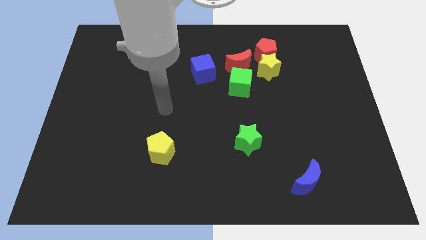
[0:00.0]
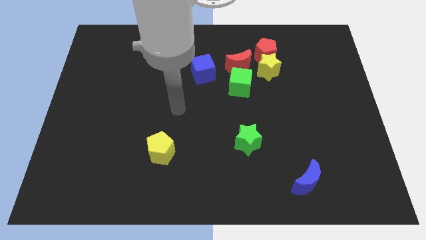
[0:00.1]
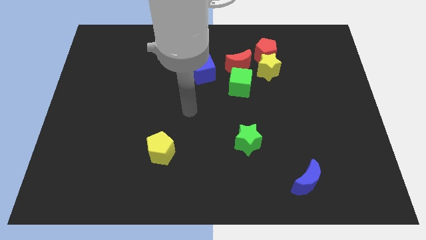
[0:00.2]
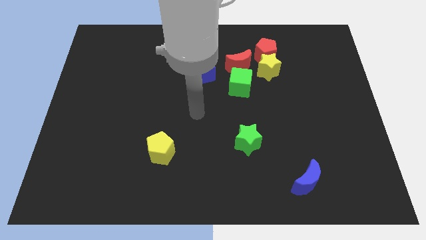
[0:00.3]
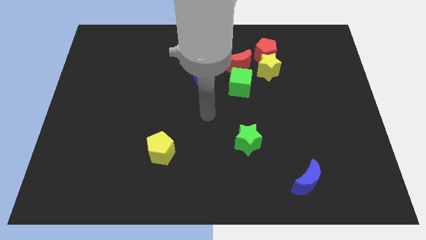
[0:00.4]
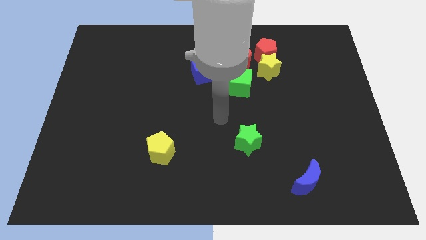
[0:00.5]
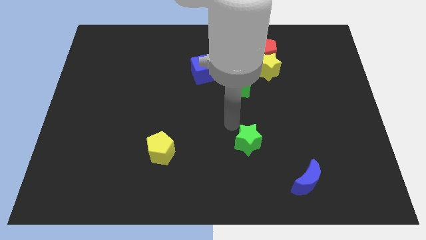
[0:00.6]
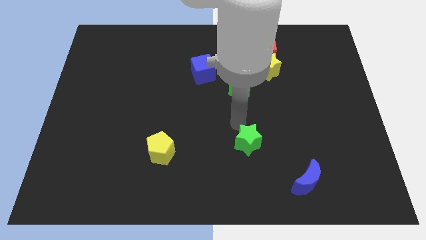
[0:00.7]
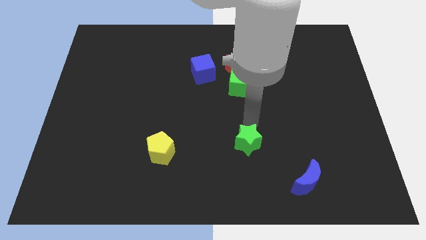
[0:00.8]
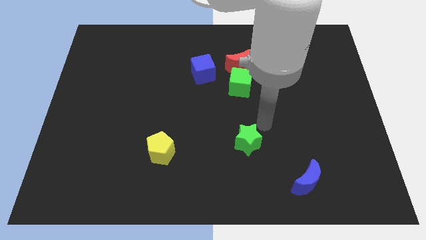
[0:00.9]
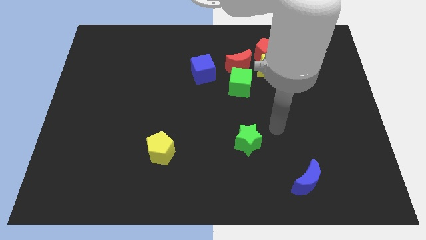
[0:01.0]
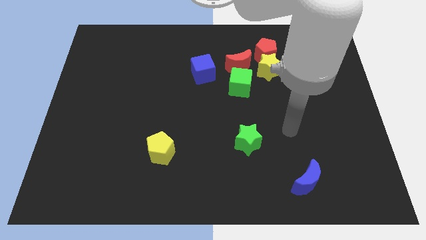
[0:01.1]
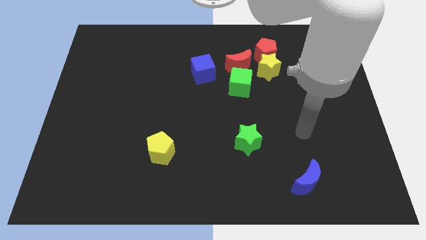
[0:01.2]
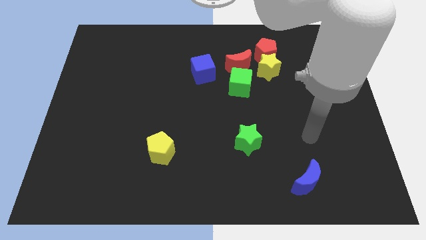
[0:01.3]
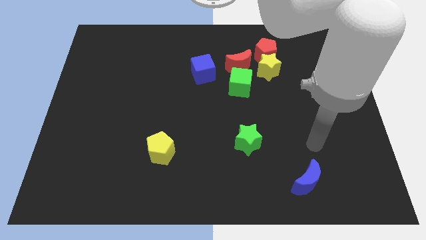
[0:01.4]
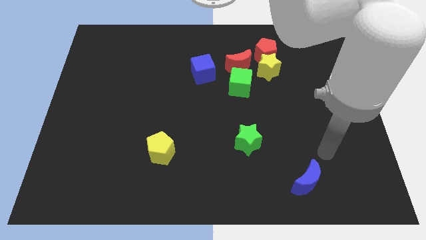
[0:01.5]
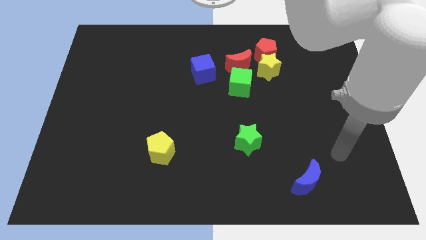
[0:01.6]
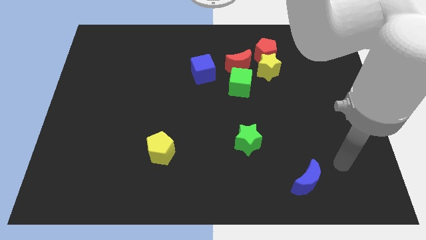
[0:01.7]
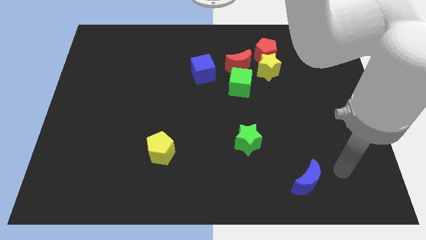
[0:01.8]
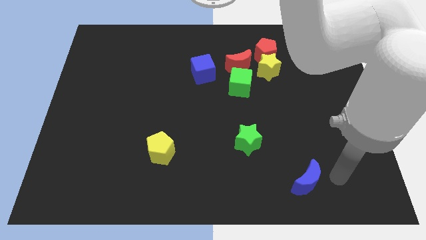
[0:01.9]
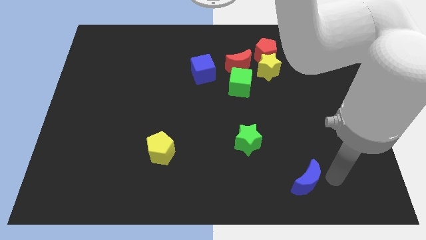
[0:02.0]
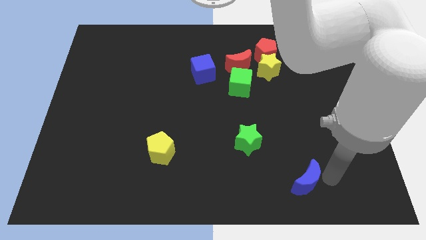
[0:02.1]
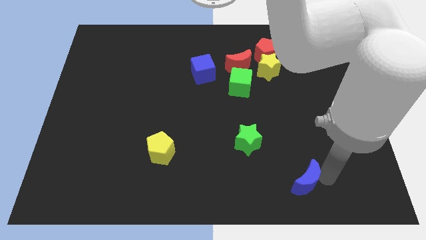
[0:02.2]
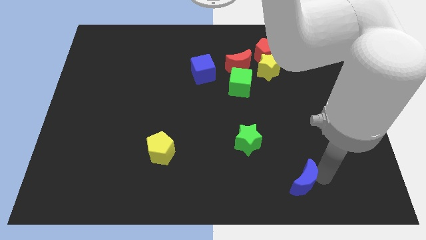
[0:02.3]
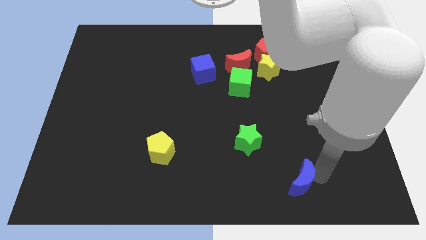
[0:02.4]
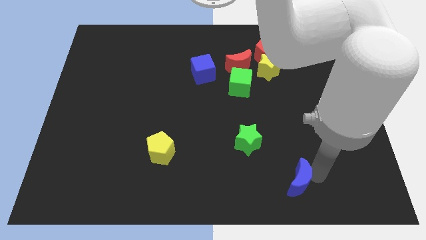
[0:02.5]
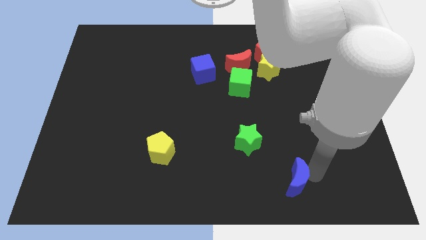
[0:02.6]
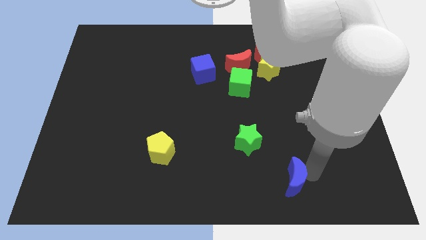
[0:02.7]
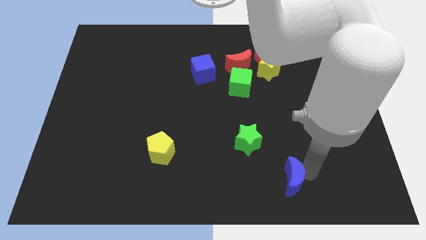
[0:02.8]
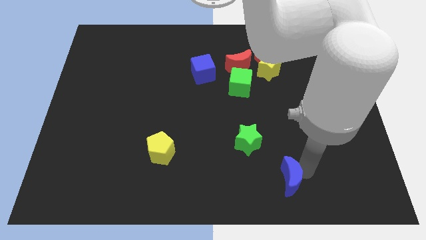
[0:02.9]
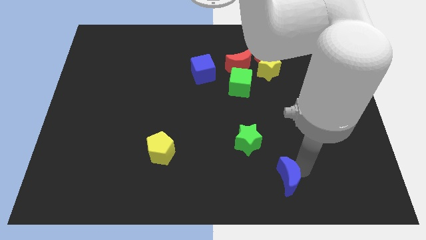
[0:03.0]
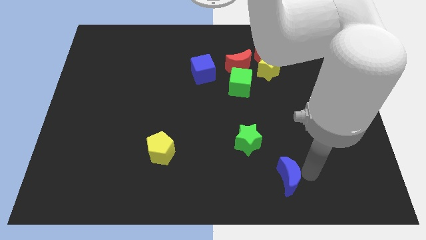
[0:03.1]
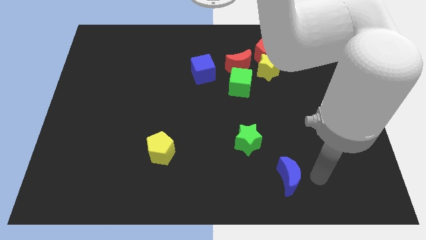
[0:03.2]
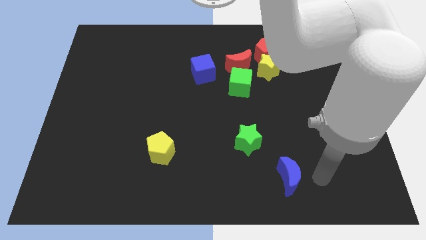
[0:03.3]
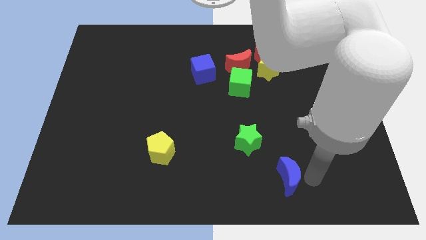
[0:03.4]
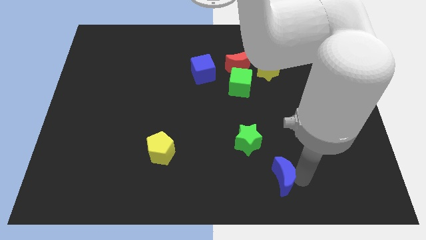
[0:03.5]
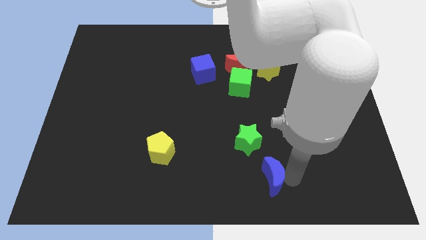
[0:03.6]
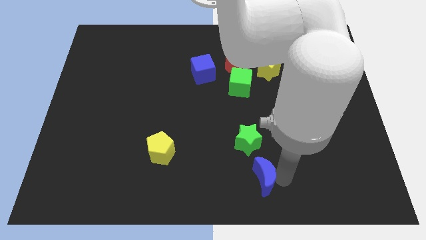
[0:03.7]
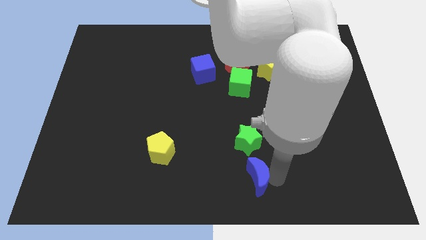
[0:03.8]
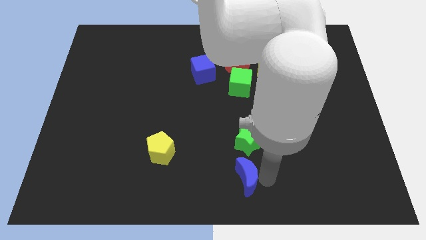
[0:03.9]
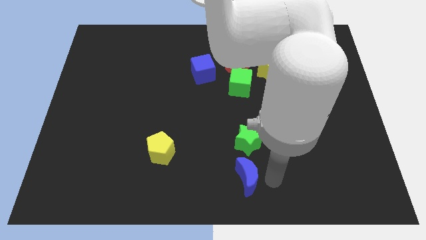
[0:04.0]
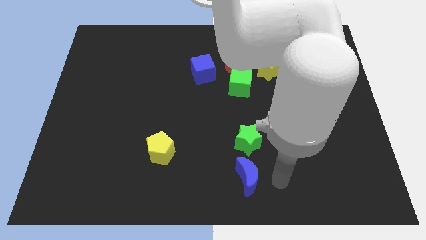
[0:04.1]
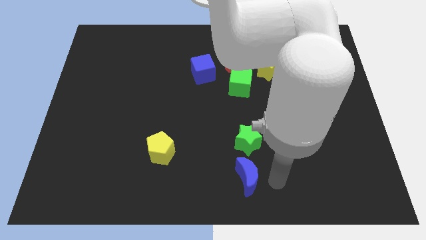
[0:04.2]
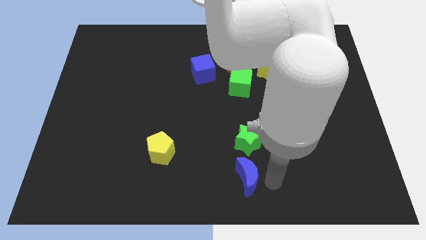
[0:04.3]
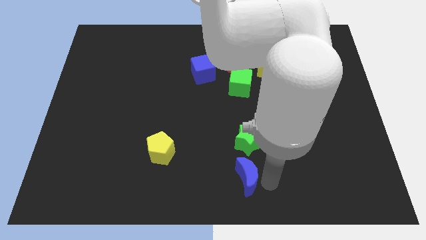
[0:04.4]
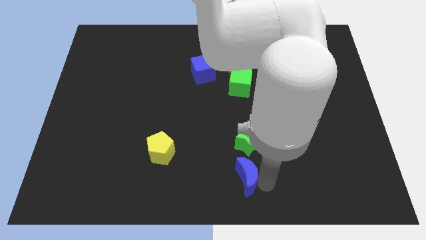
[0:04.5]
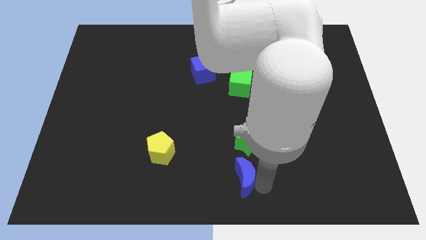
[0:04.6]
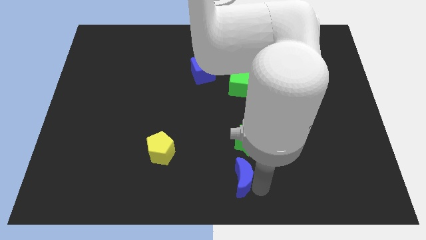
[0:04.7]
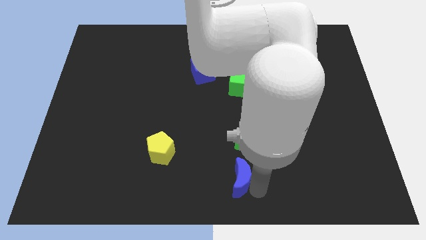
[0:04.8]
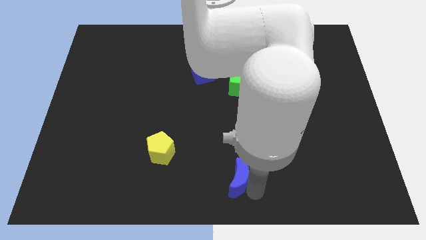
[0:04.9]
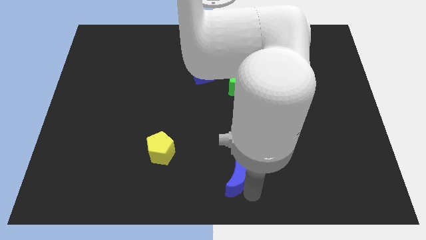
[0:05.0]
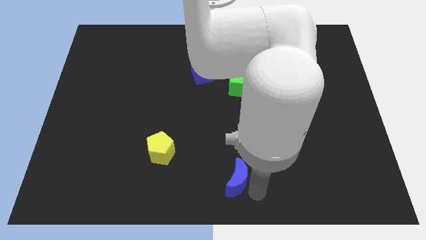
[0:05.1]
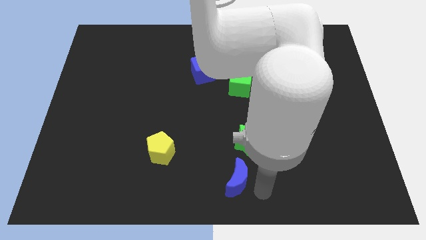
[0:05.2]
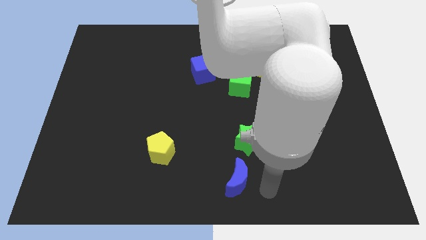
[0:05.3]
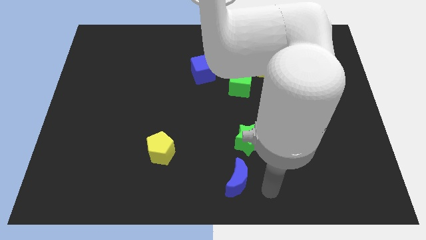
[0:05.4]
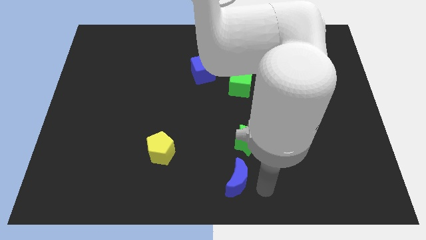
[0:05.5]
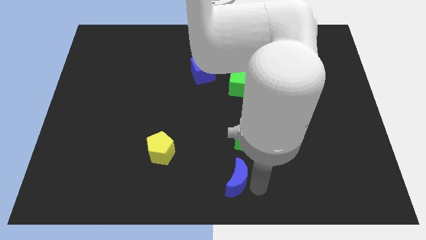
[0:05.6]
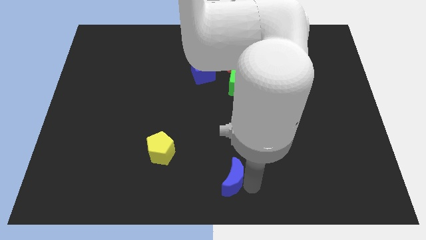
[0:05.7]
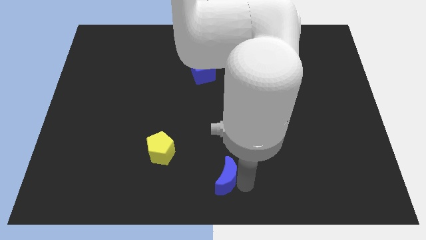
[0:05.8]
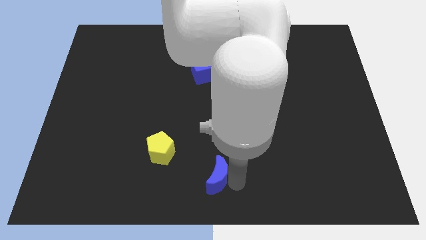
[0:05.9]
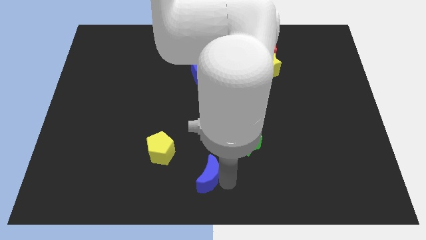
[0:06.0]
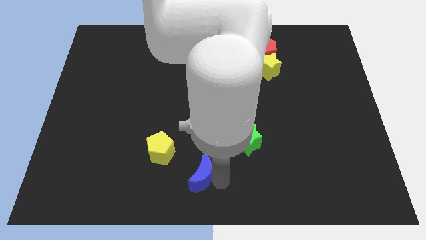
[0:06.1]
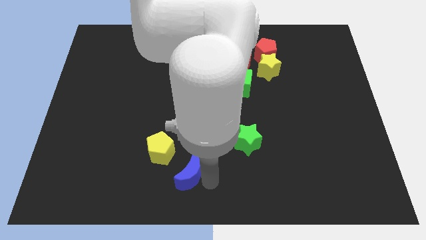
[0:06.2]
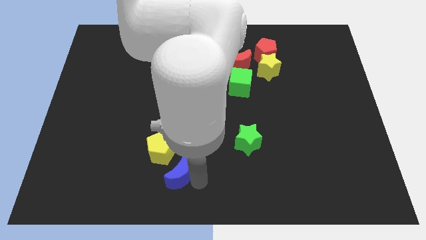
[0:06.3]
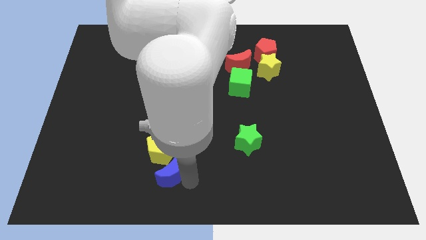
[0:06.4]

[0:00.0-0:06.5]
slide the blue moon to the yellow pentagon

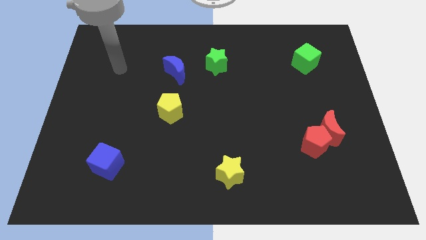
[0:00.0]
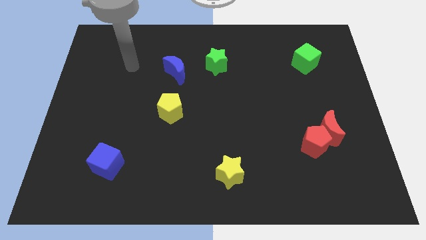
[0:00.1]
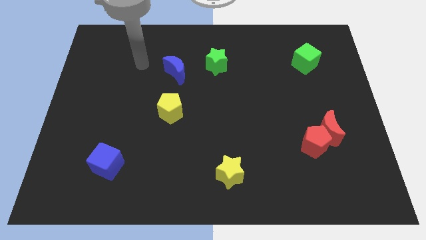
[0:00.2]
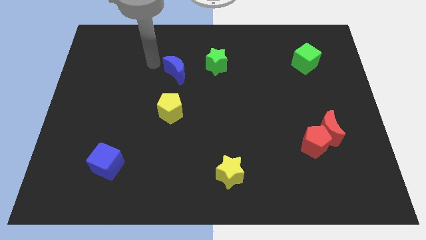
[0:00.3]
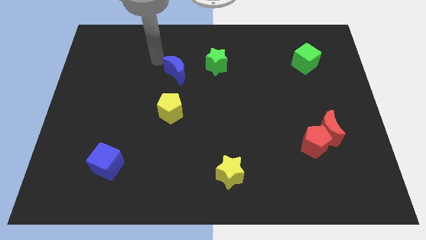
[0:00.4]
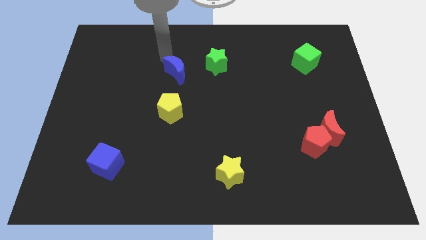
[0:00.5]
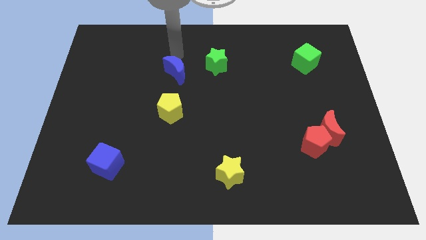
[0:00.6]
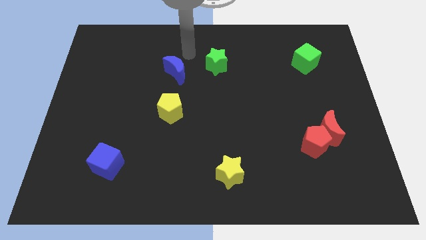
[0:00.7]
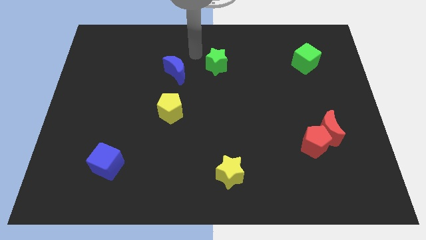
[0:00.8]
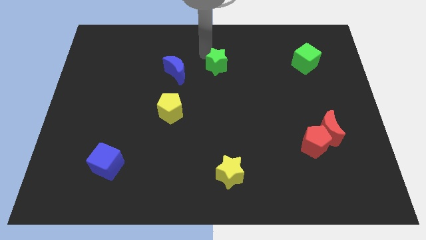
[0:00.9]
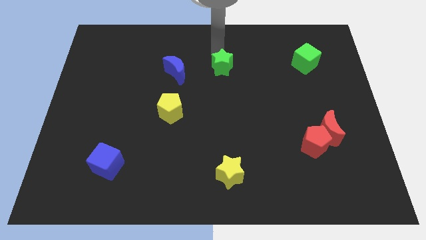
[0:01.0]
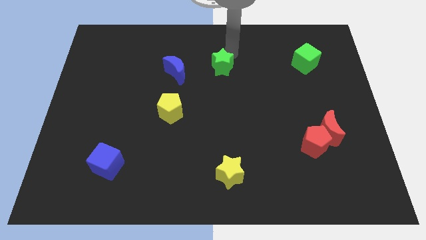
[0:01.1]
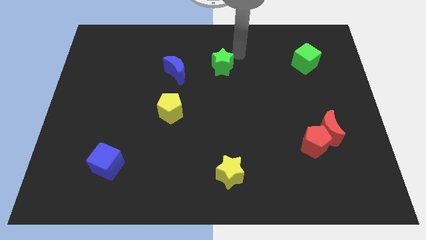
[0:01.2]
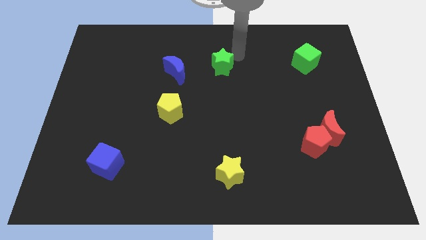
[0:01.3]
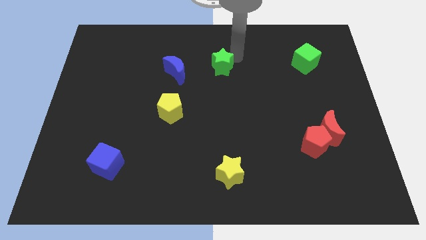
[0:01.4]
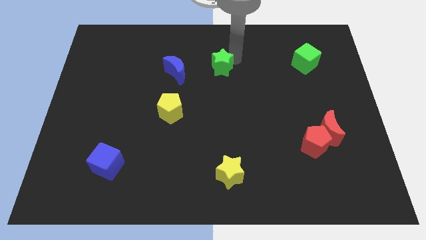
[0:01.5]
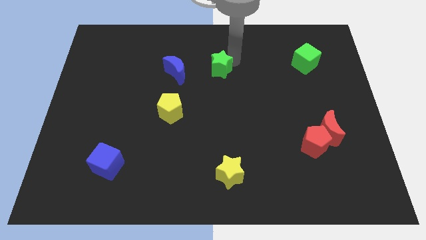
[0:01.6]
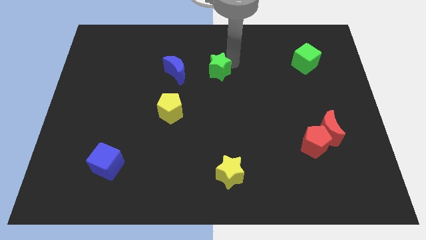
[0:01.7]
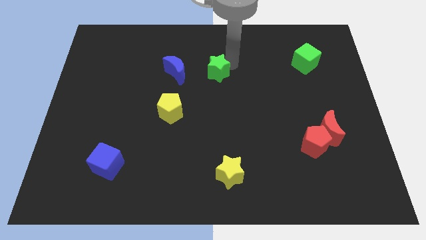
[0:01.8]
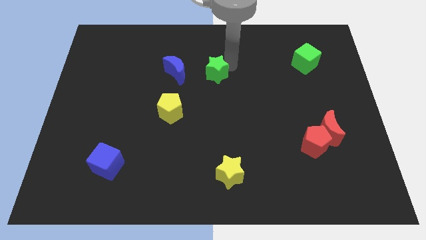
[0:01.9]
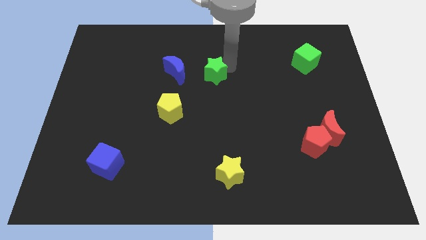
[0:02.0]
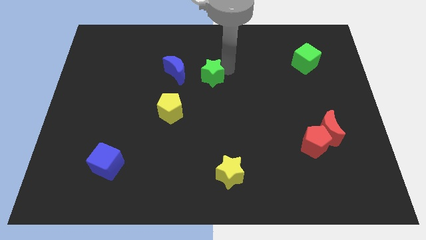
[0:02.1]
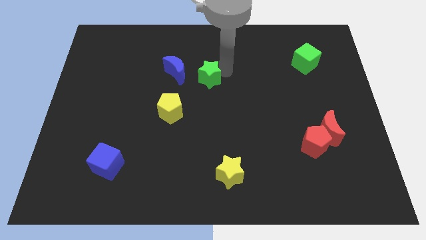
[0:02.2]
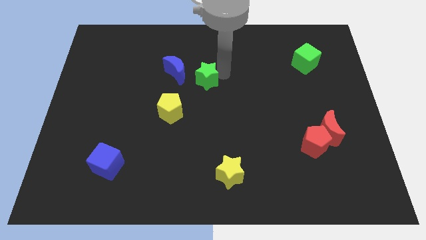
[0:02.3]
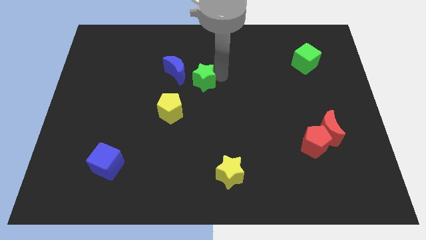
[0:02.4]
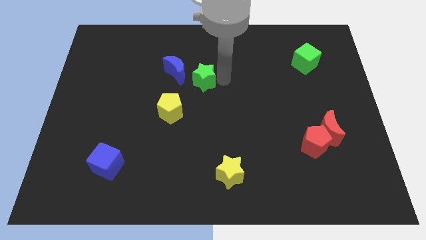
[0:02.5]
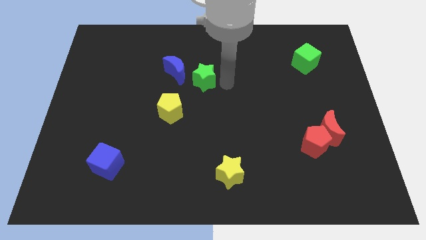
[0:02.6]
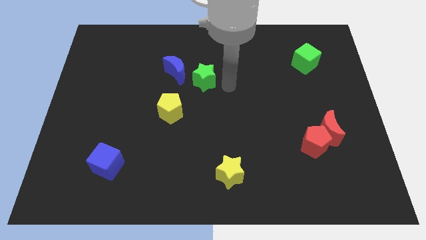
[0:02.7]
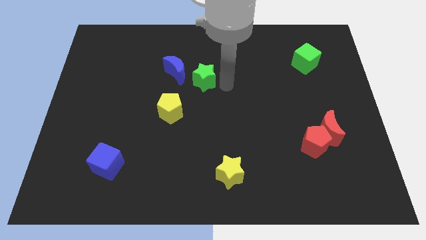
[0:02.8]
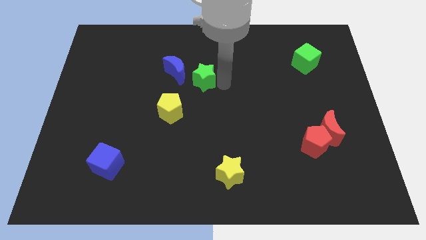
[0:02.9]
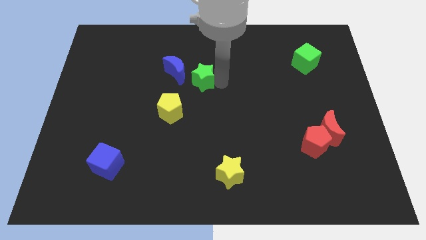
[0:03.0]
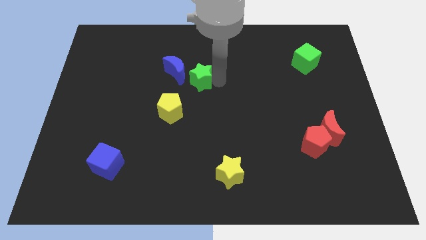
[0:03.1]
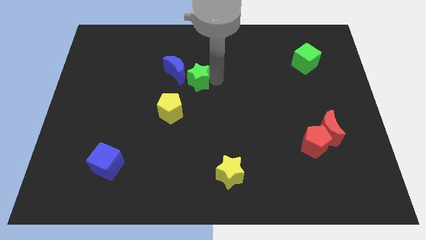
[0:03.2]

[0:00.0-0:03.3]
push the green star towards the blue moon
